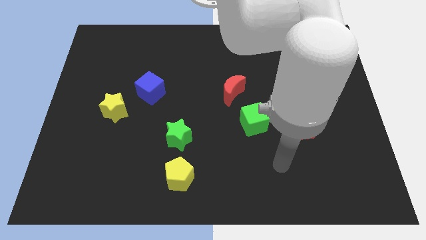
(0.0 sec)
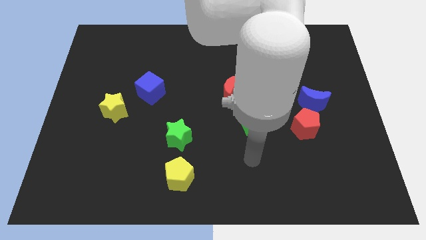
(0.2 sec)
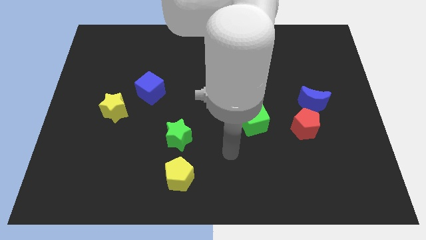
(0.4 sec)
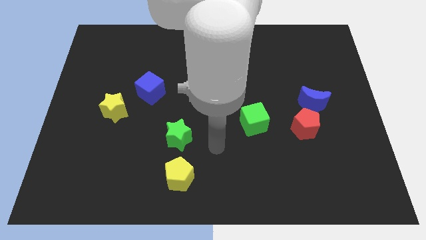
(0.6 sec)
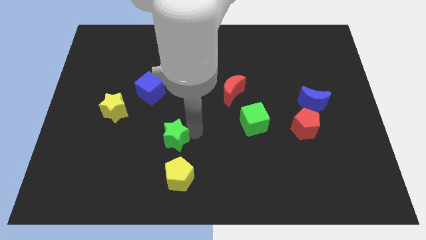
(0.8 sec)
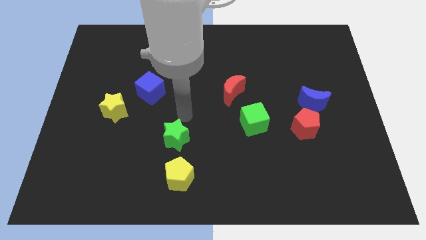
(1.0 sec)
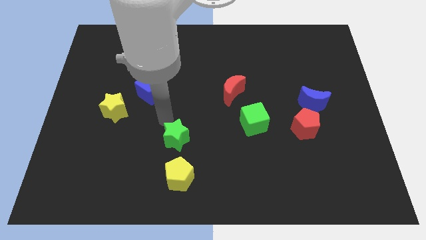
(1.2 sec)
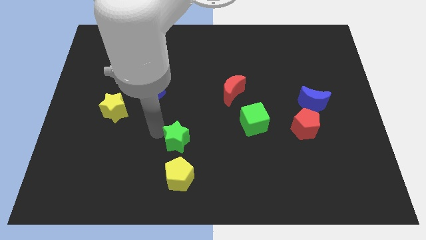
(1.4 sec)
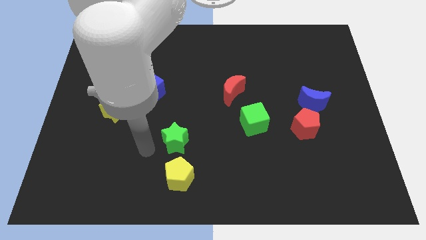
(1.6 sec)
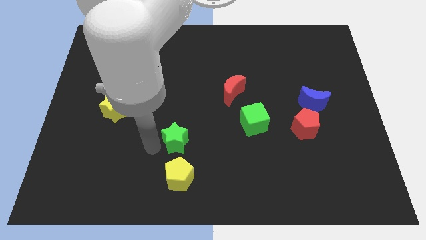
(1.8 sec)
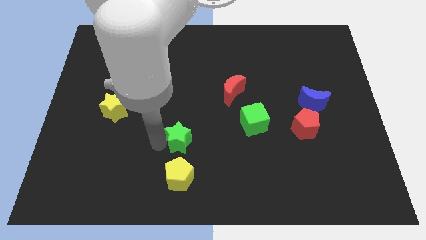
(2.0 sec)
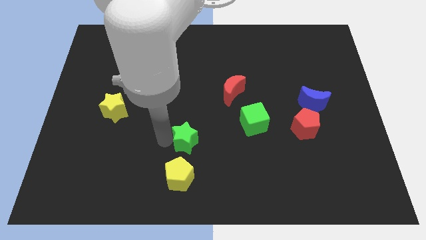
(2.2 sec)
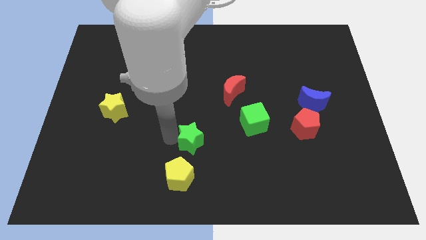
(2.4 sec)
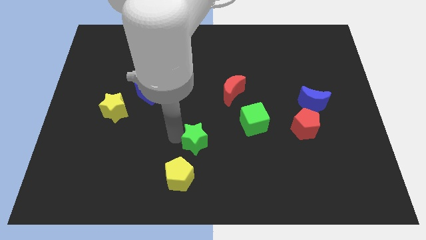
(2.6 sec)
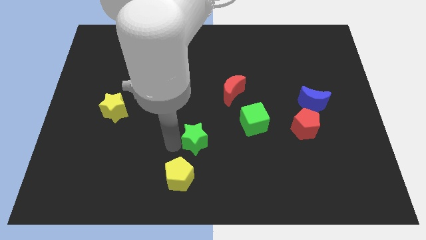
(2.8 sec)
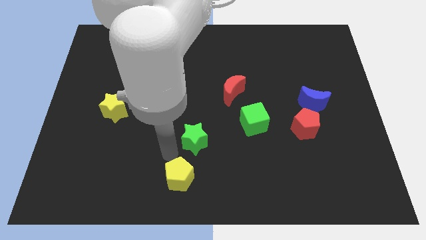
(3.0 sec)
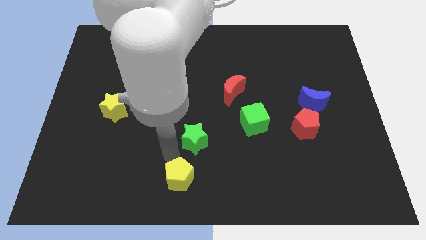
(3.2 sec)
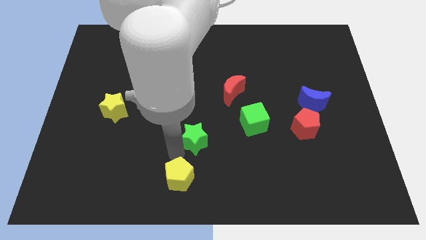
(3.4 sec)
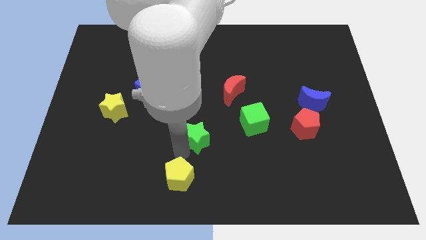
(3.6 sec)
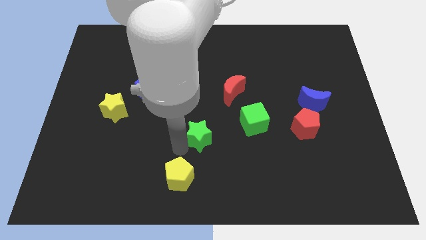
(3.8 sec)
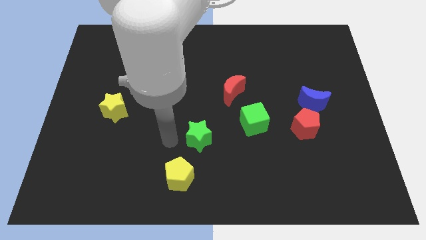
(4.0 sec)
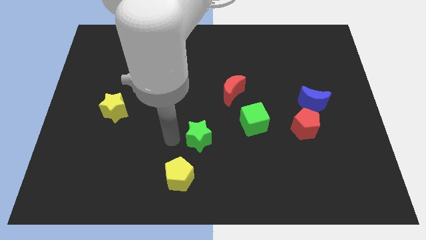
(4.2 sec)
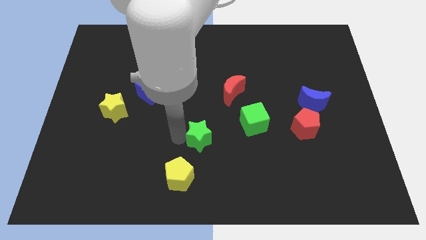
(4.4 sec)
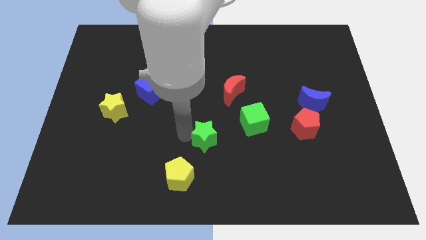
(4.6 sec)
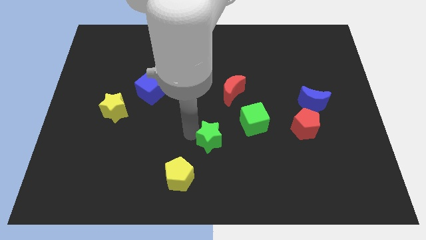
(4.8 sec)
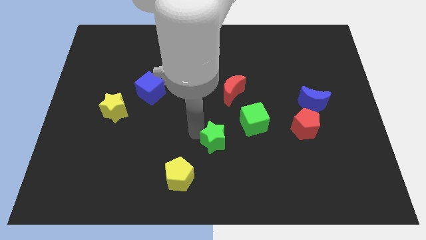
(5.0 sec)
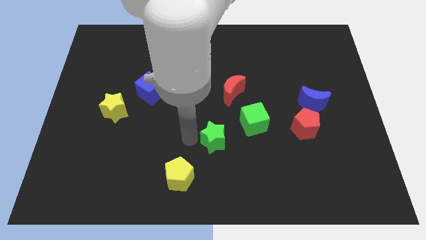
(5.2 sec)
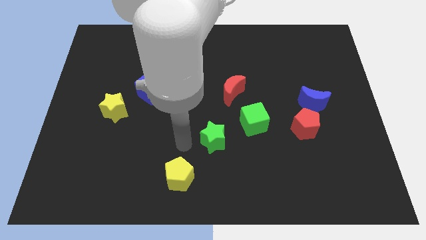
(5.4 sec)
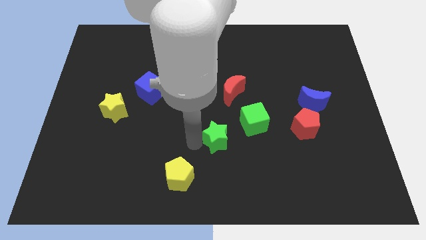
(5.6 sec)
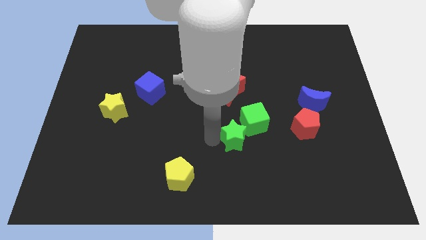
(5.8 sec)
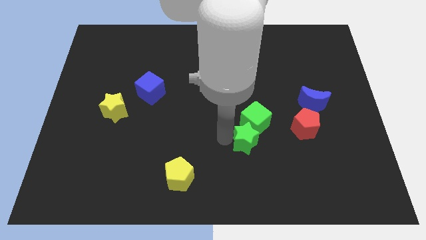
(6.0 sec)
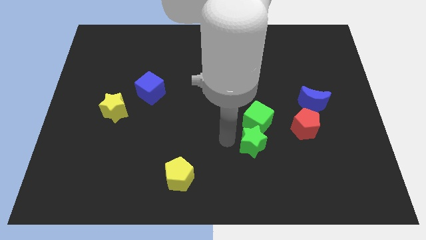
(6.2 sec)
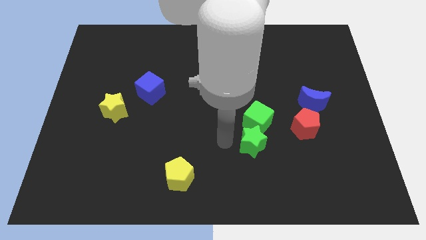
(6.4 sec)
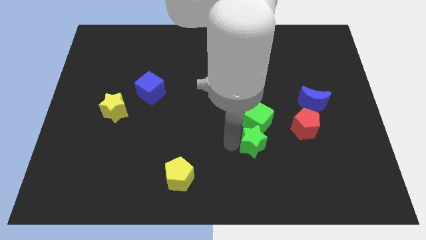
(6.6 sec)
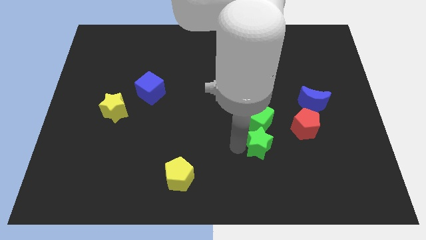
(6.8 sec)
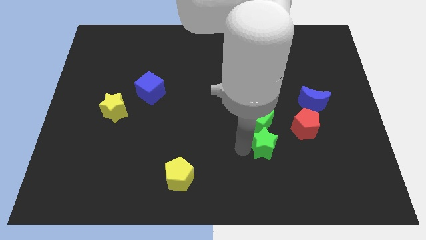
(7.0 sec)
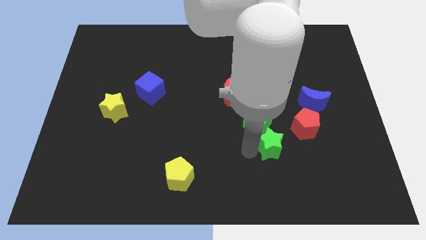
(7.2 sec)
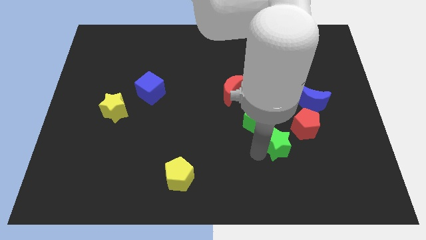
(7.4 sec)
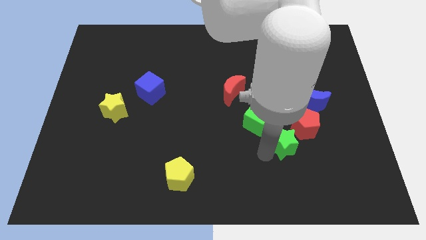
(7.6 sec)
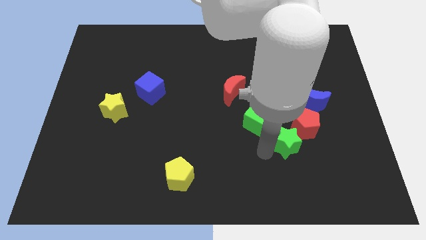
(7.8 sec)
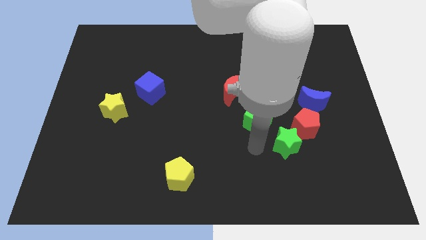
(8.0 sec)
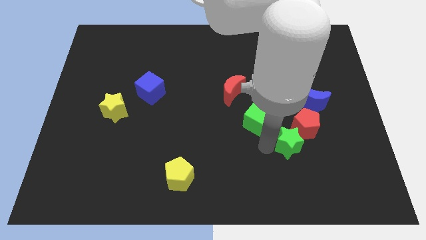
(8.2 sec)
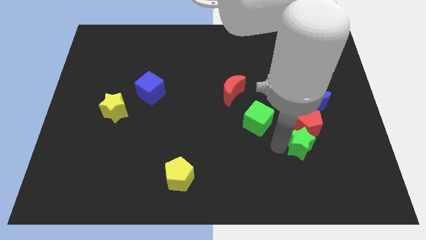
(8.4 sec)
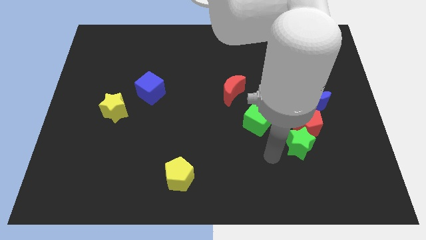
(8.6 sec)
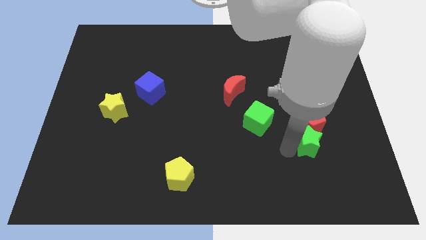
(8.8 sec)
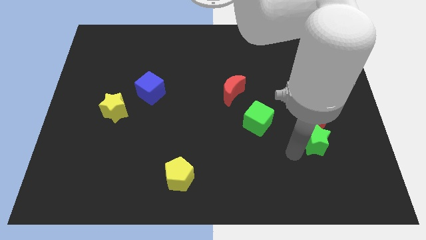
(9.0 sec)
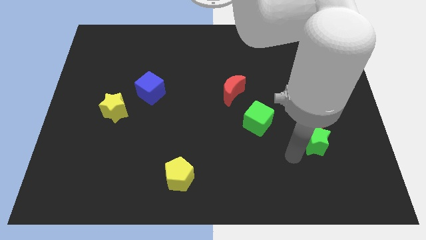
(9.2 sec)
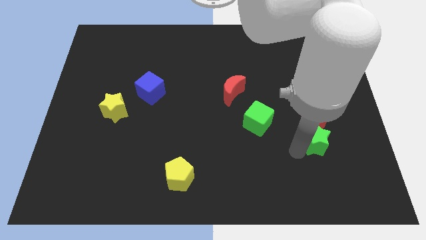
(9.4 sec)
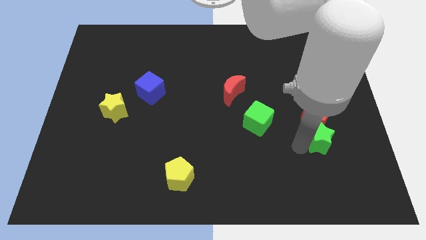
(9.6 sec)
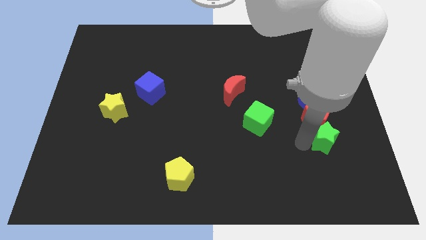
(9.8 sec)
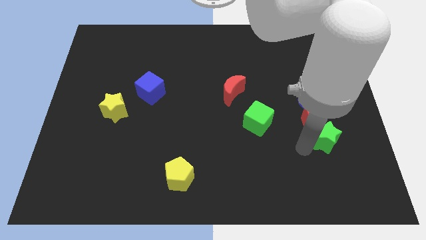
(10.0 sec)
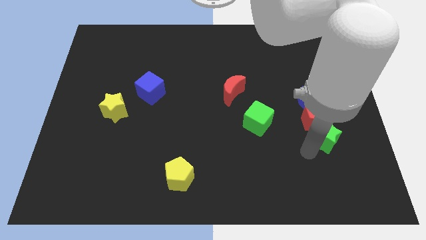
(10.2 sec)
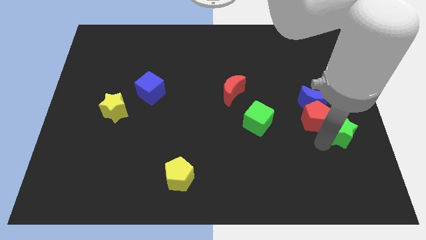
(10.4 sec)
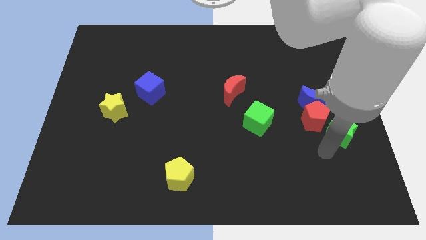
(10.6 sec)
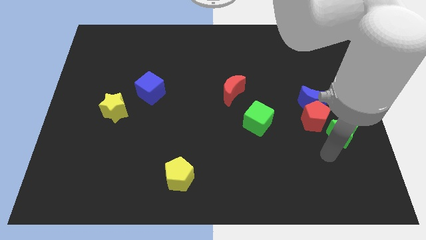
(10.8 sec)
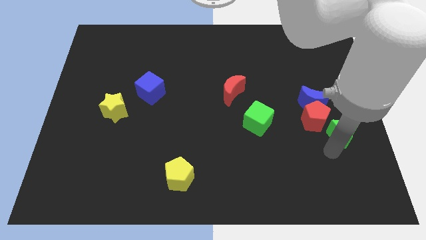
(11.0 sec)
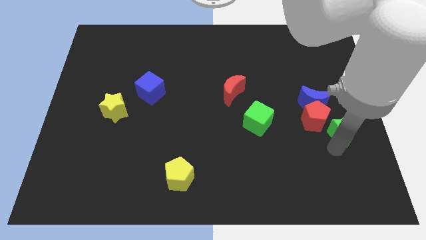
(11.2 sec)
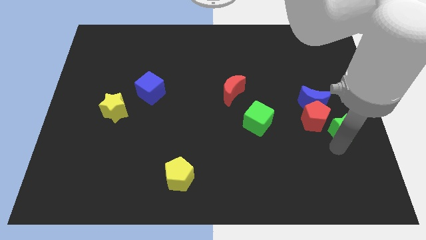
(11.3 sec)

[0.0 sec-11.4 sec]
push the green star to the right side of the board
